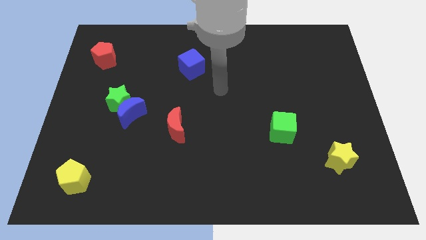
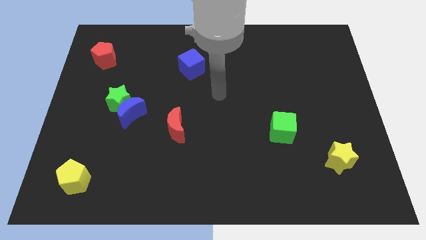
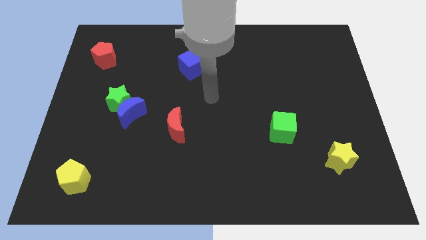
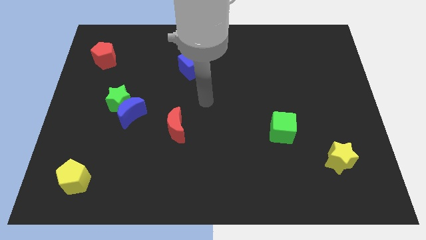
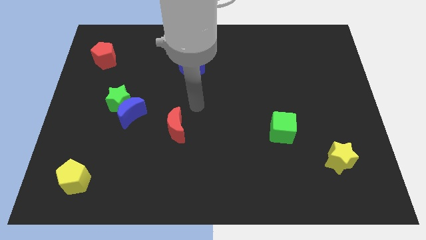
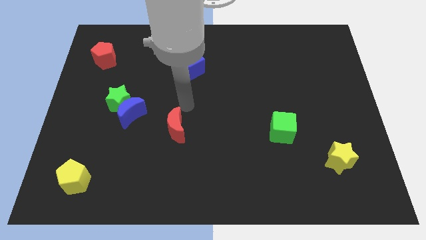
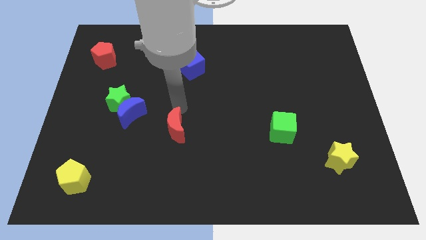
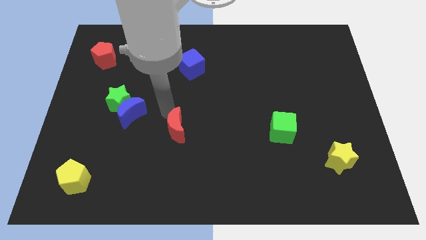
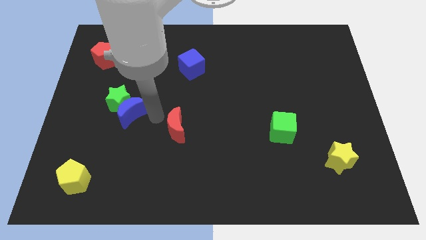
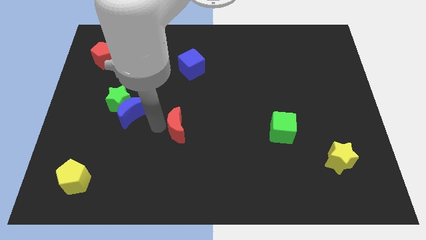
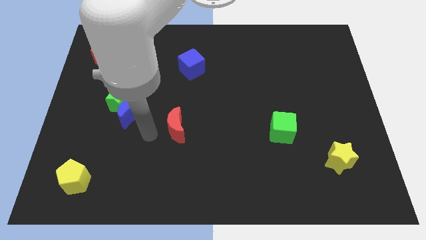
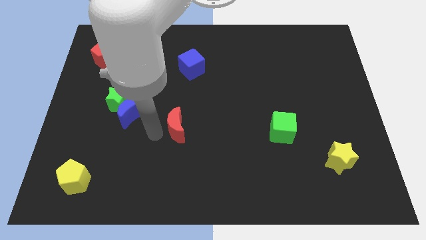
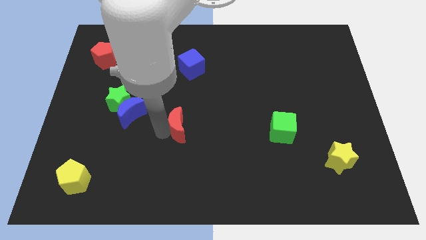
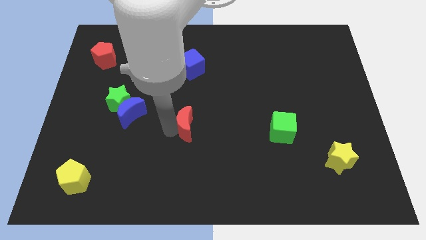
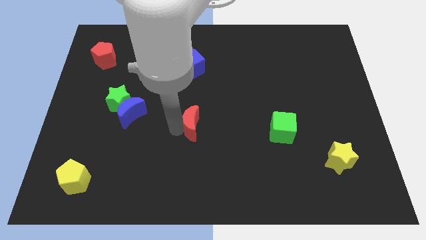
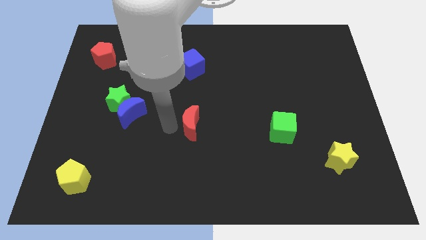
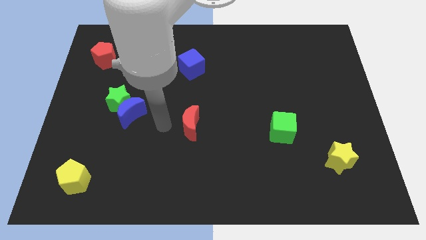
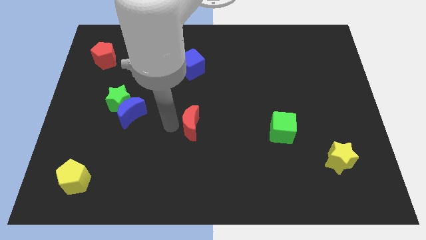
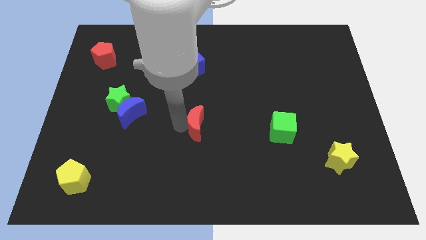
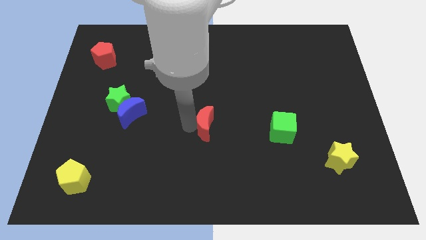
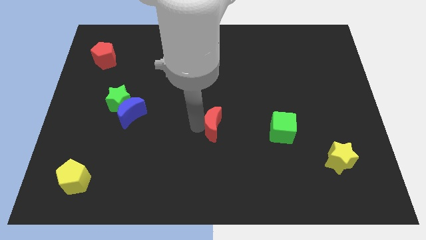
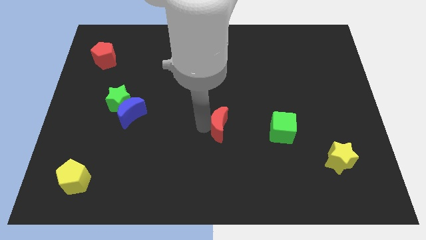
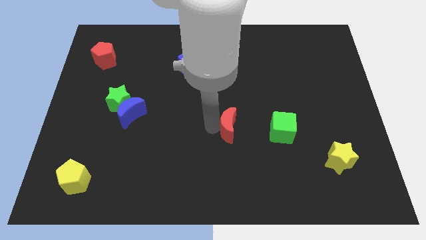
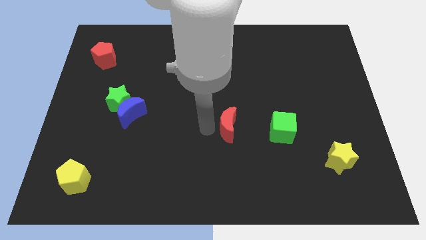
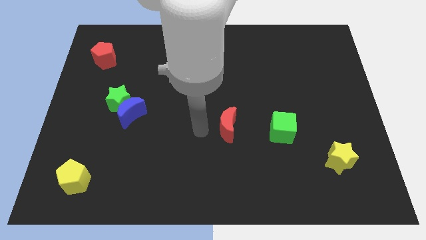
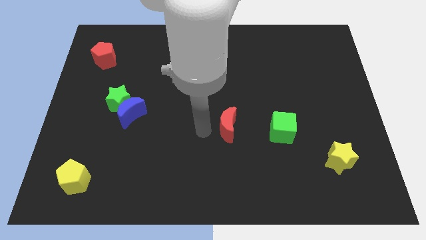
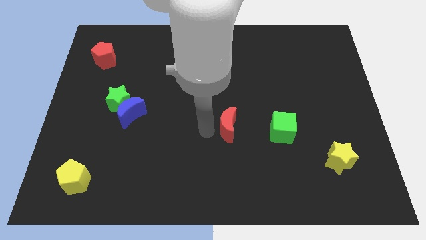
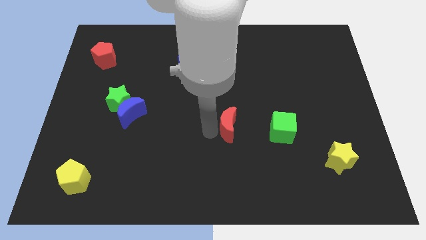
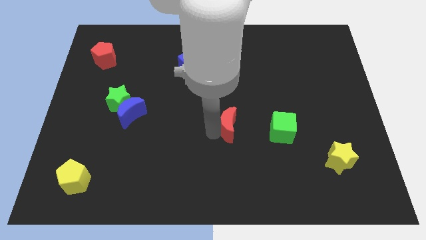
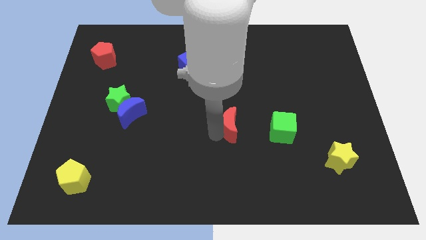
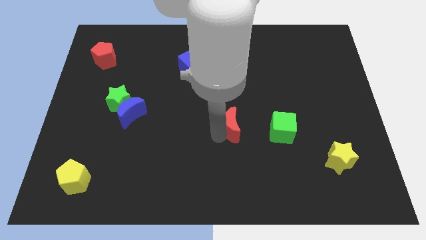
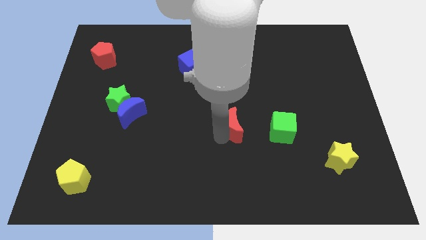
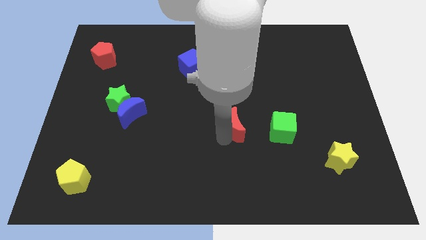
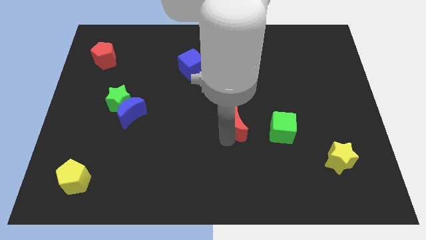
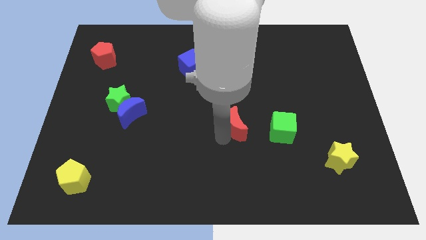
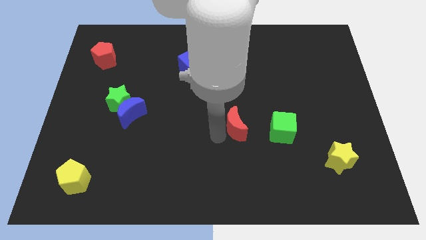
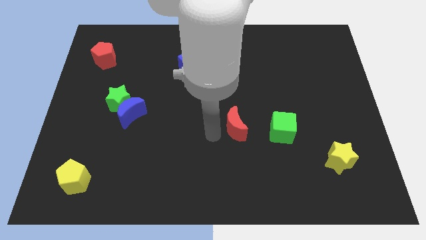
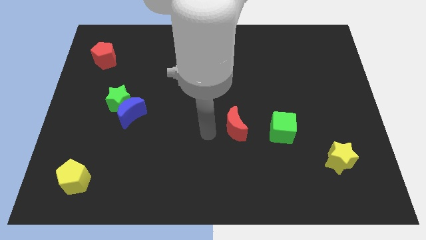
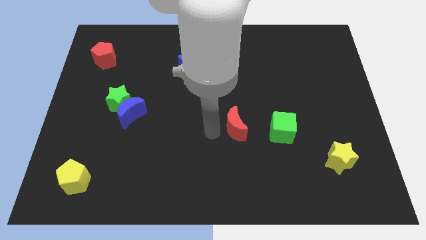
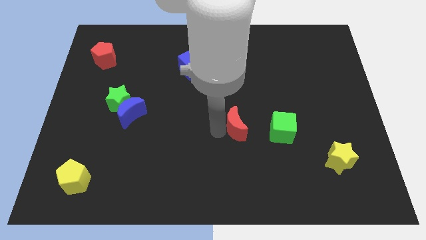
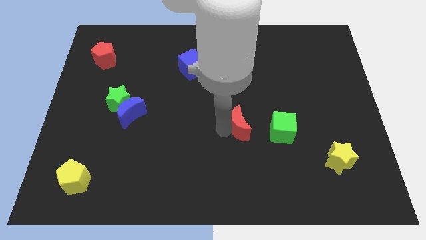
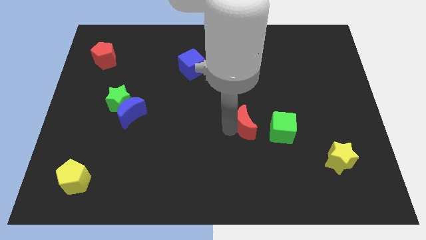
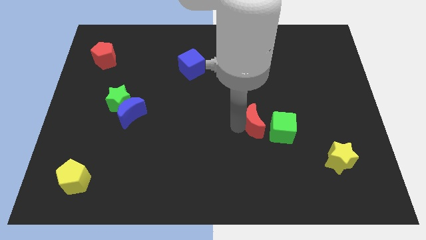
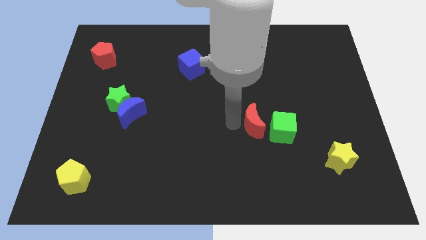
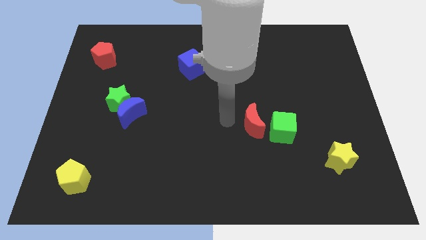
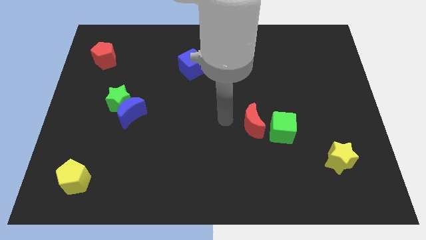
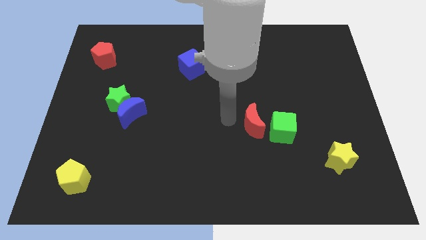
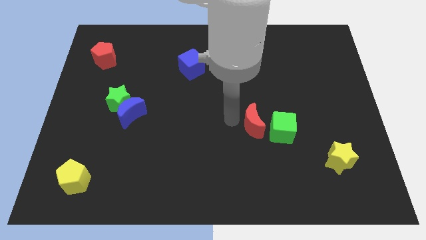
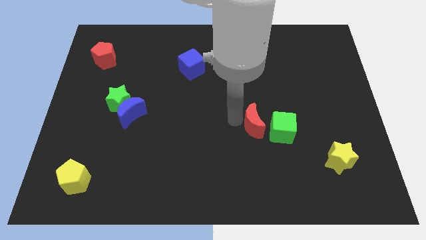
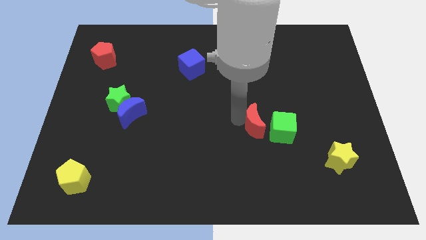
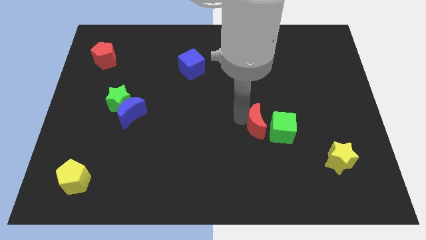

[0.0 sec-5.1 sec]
slide the red moon next to the green cube

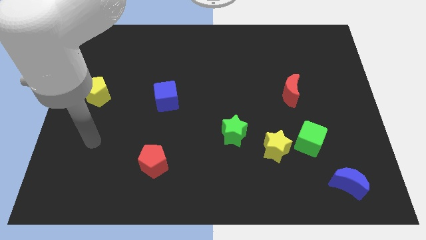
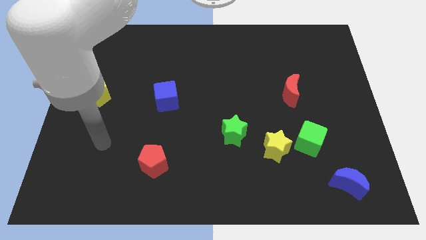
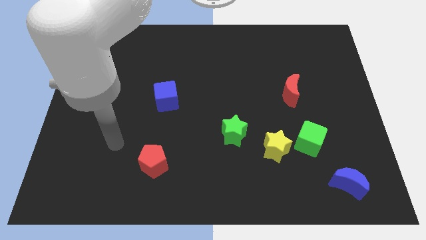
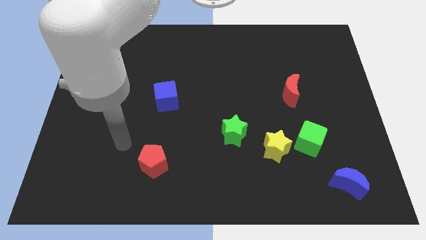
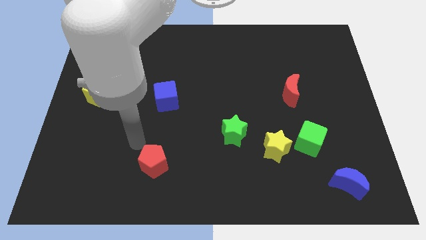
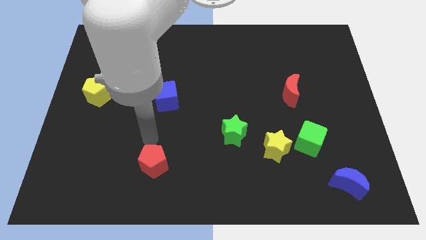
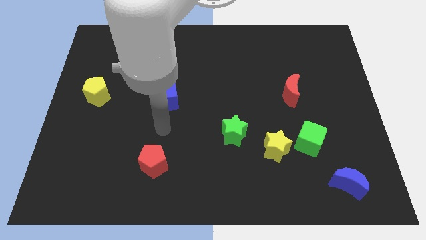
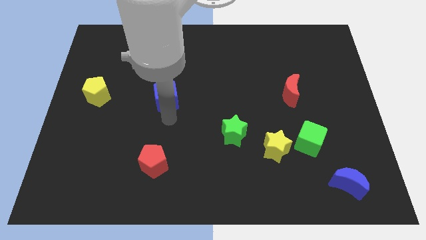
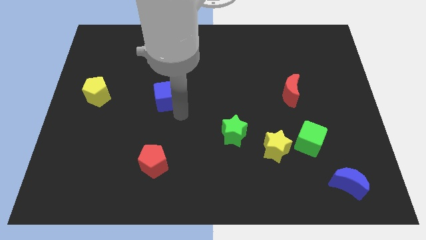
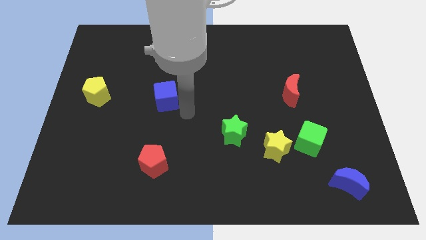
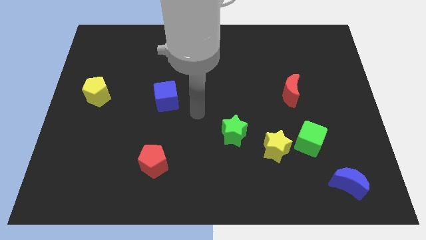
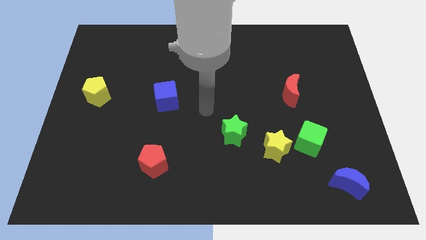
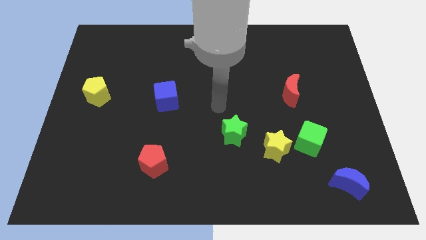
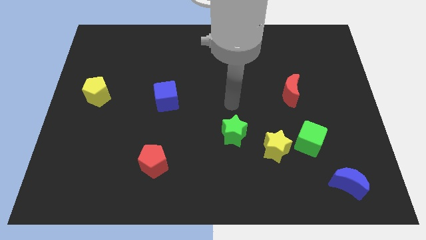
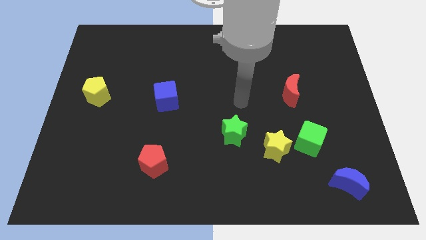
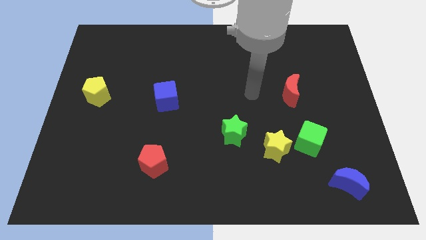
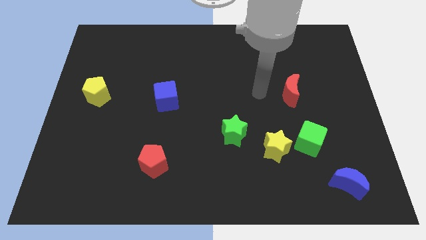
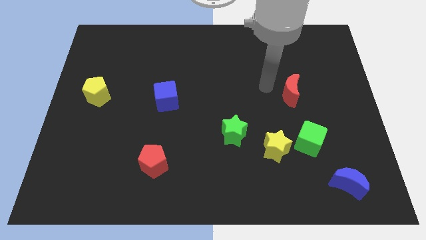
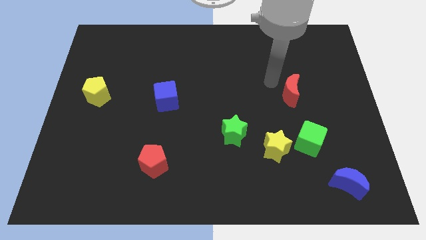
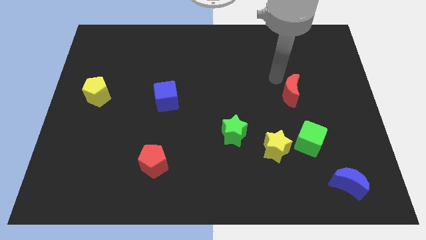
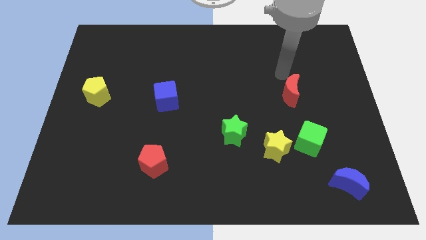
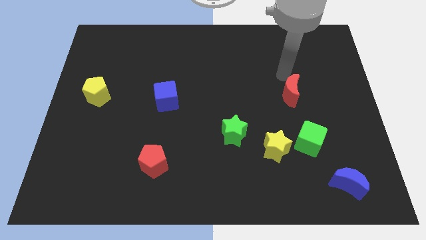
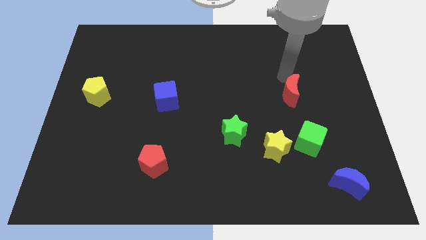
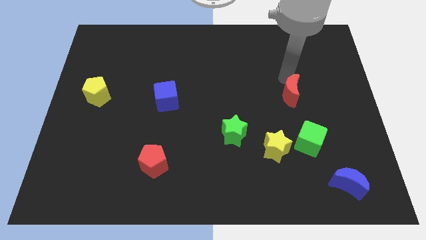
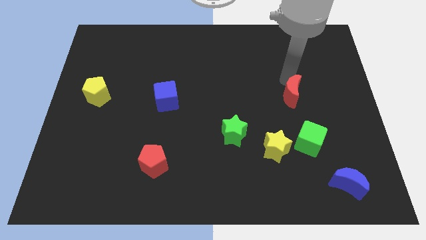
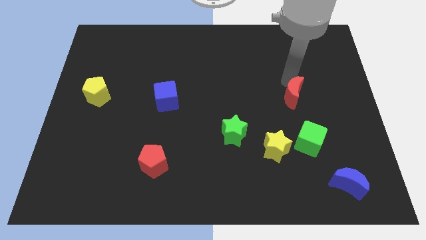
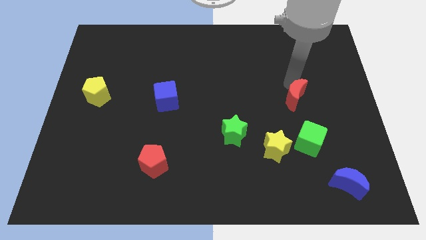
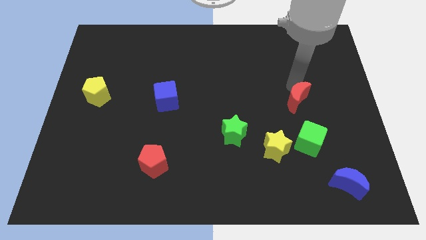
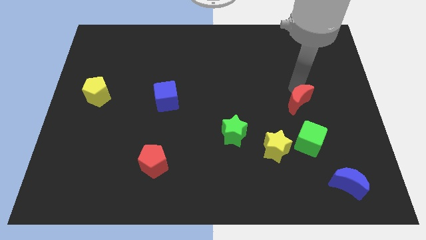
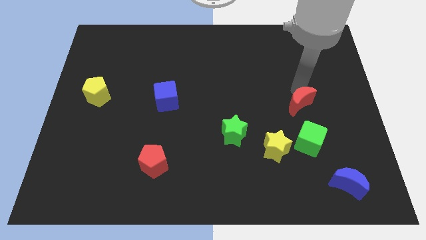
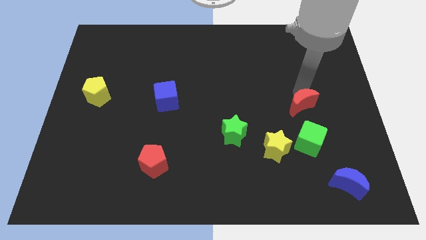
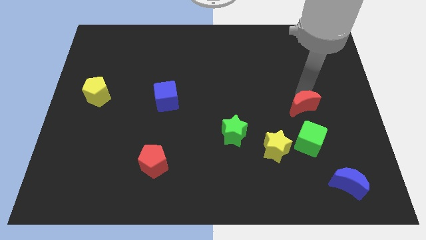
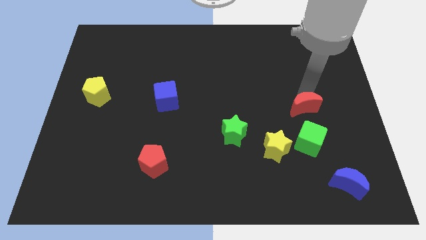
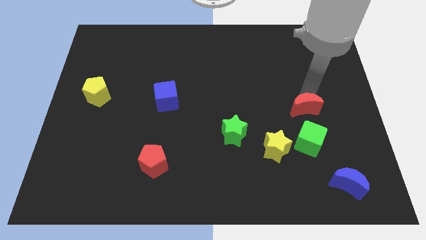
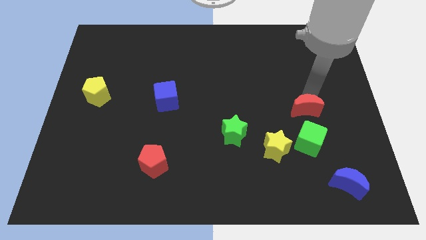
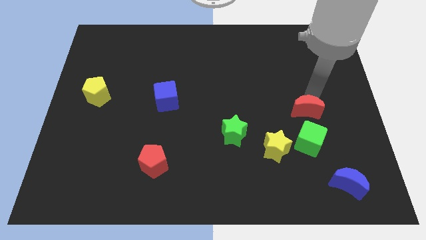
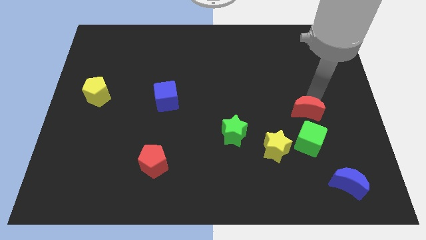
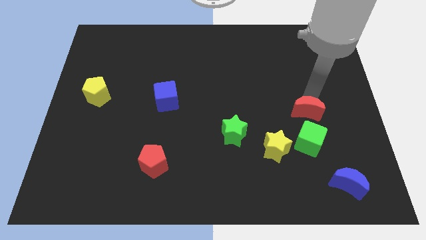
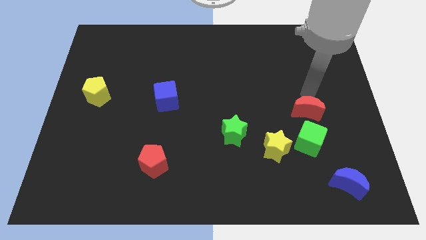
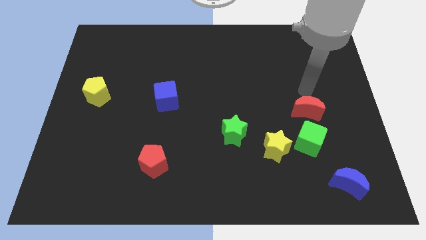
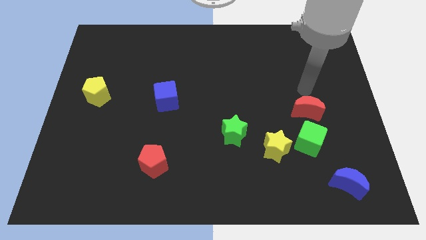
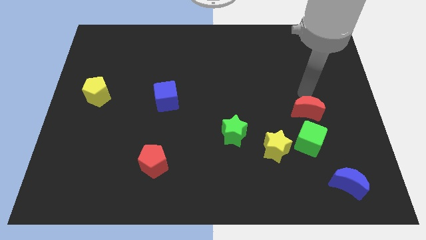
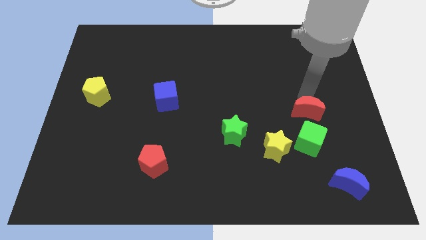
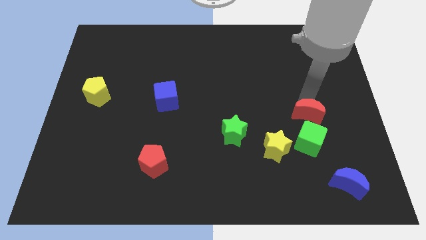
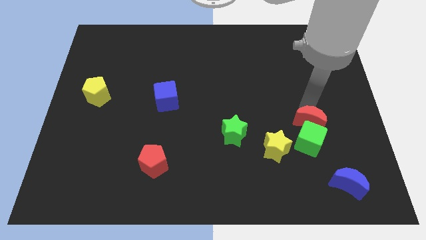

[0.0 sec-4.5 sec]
push the red moon towards the green cube
